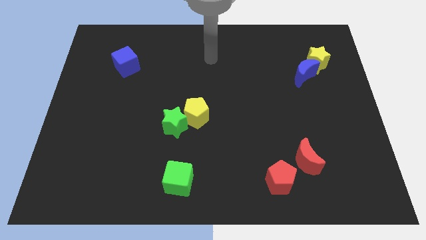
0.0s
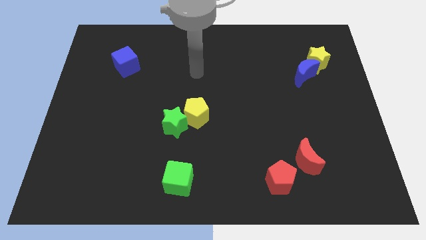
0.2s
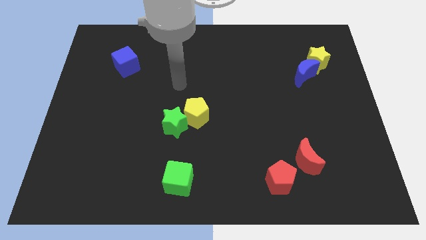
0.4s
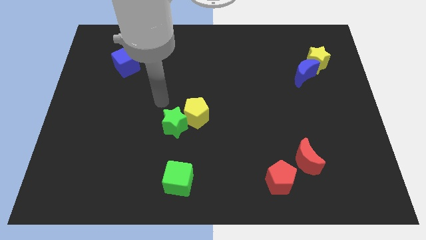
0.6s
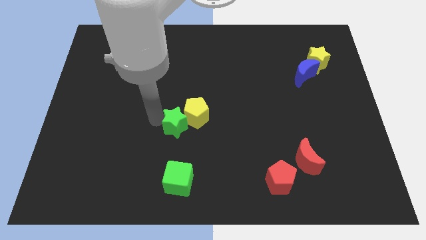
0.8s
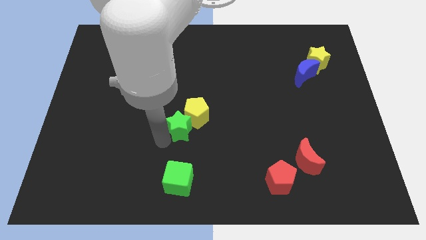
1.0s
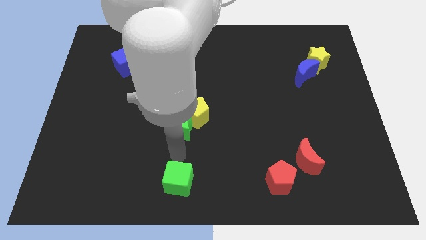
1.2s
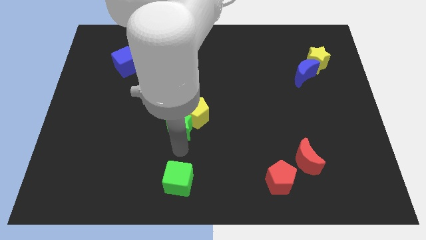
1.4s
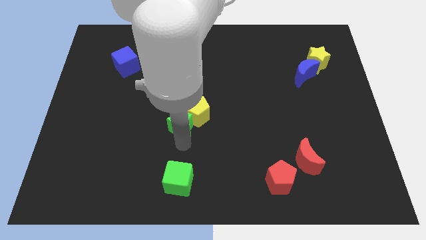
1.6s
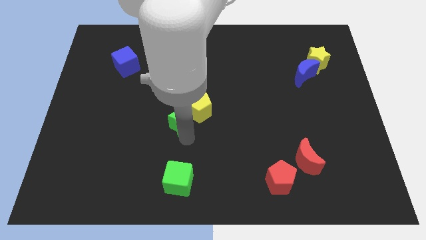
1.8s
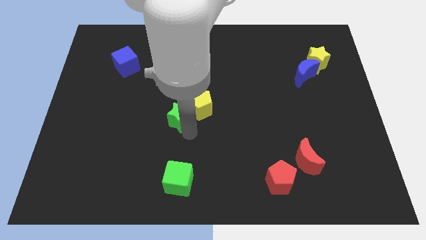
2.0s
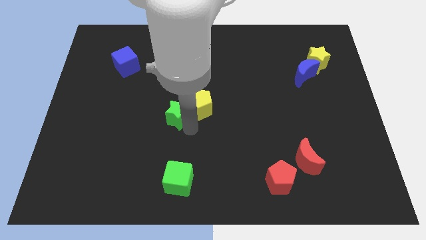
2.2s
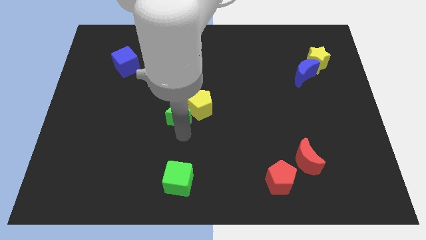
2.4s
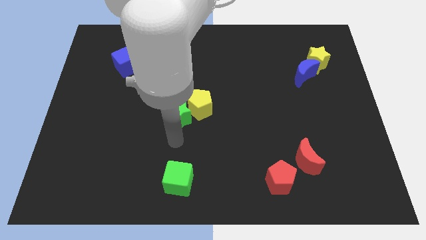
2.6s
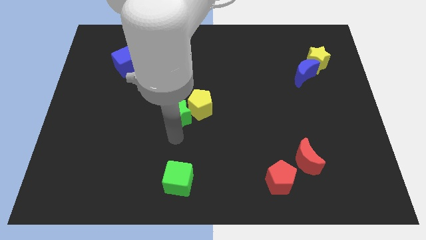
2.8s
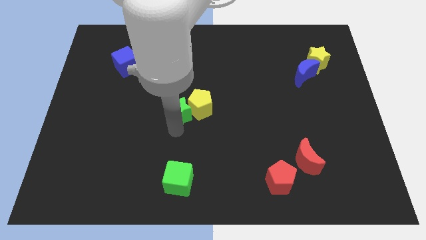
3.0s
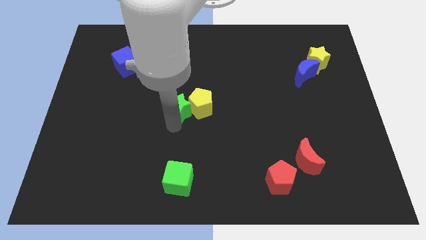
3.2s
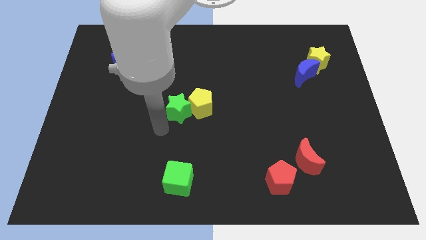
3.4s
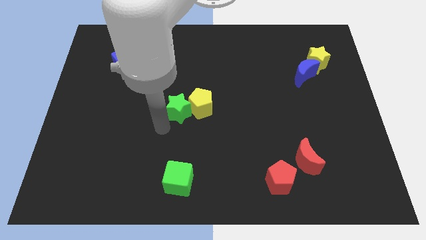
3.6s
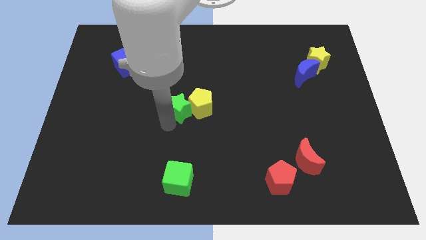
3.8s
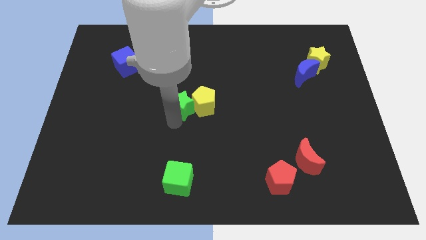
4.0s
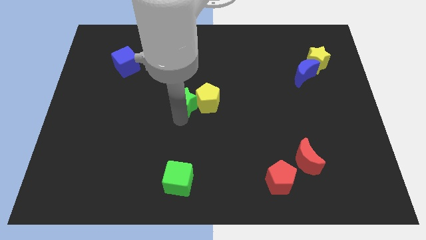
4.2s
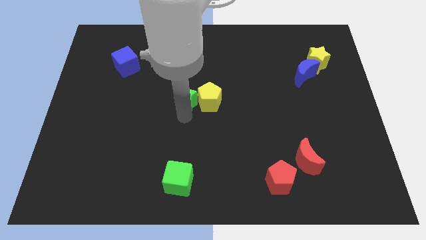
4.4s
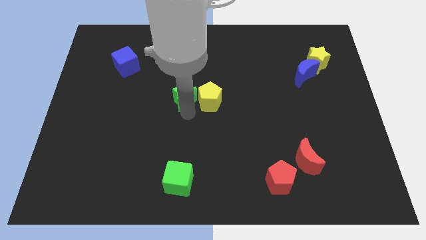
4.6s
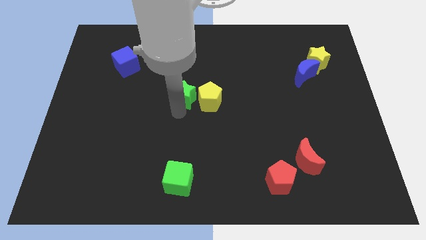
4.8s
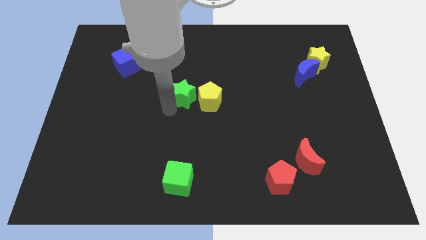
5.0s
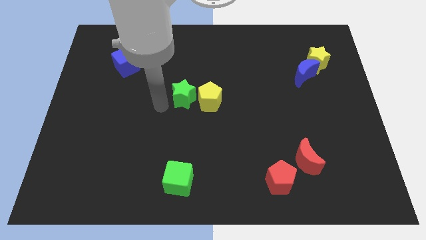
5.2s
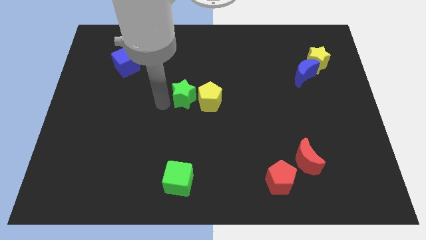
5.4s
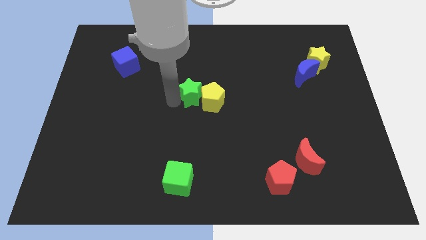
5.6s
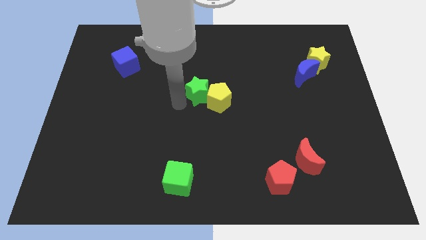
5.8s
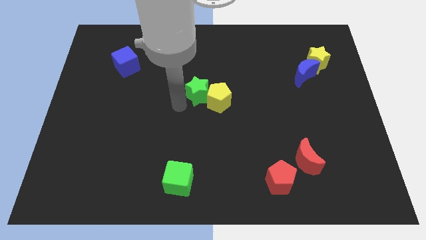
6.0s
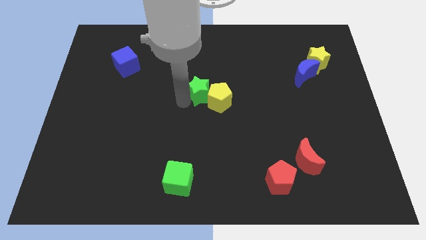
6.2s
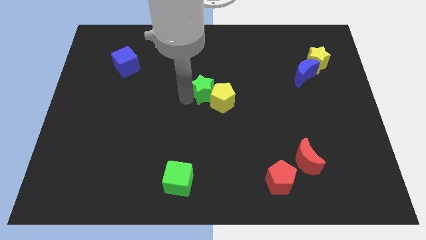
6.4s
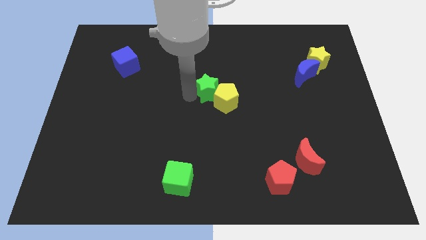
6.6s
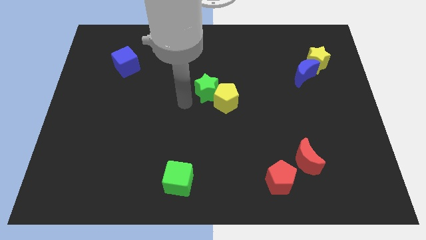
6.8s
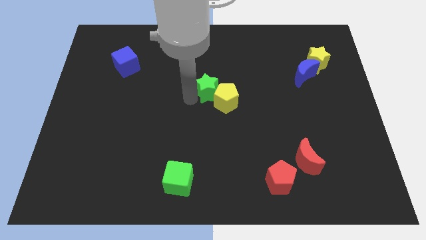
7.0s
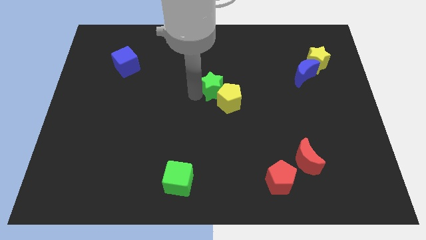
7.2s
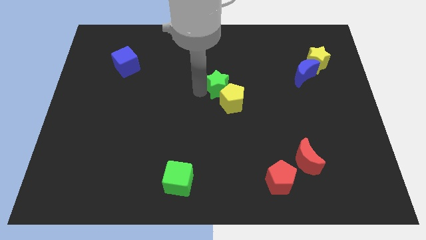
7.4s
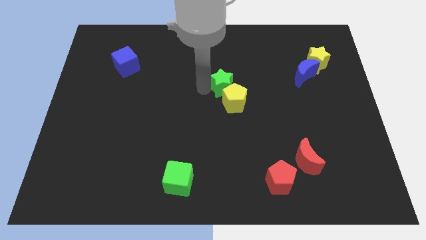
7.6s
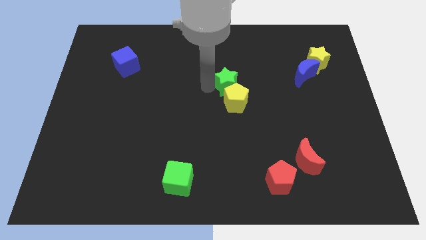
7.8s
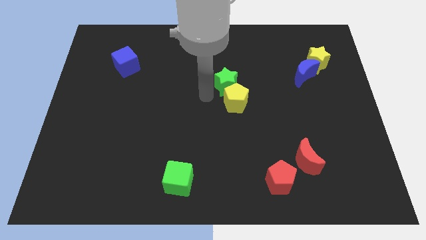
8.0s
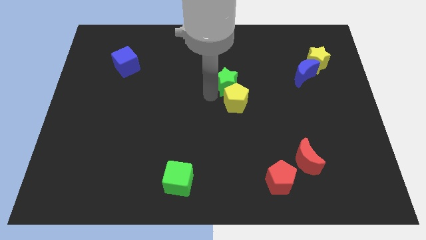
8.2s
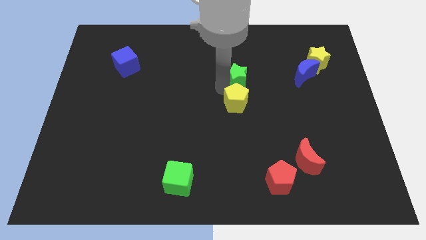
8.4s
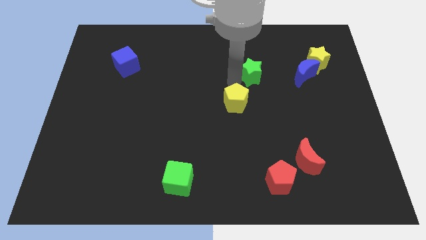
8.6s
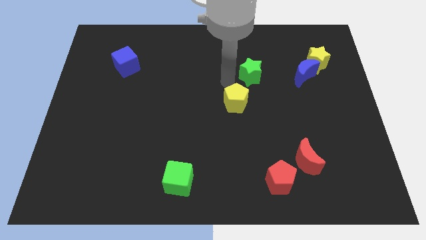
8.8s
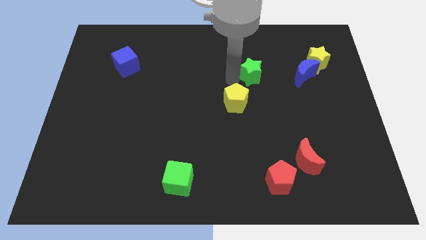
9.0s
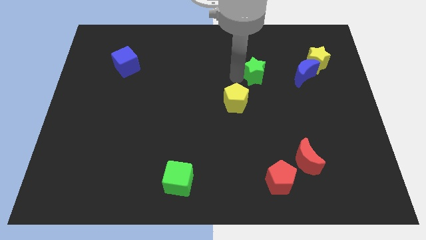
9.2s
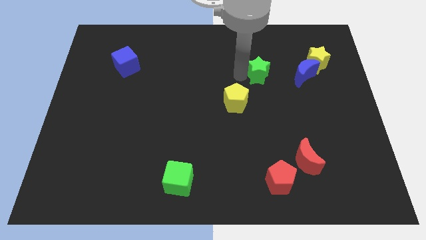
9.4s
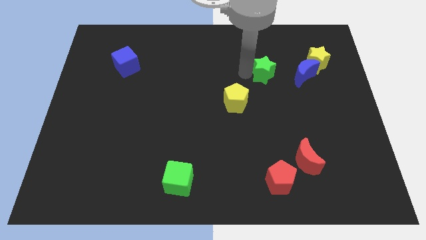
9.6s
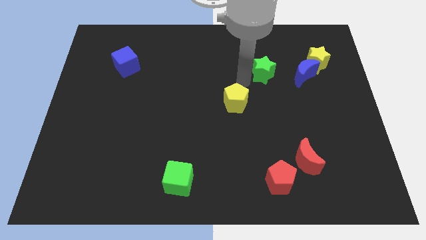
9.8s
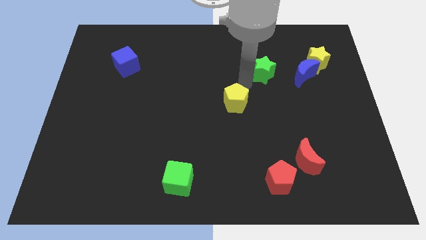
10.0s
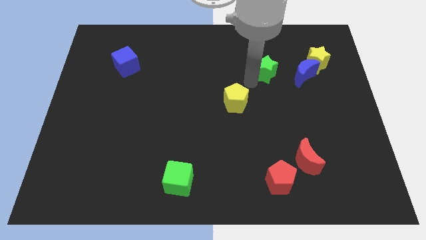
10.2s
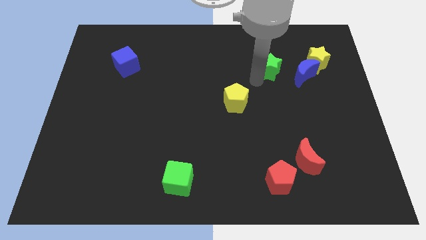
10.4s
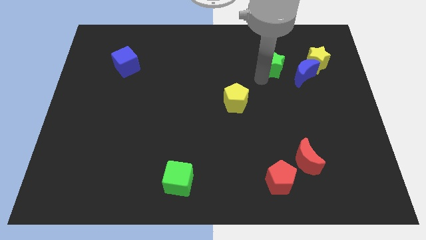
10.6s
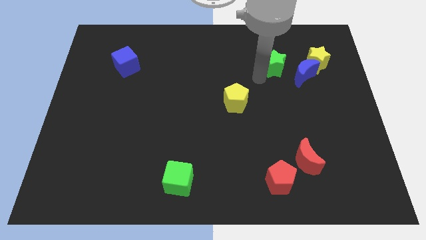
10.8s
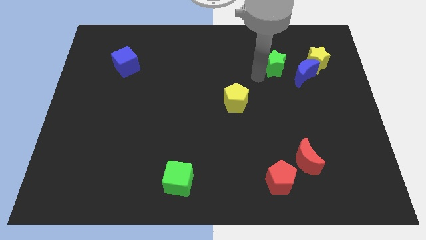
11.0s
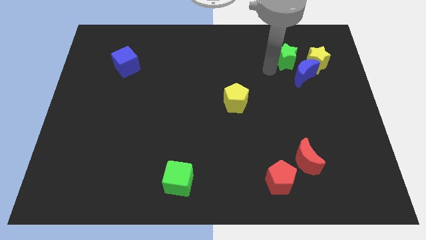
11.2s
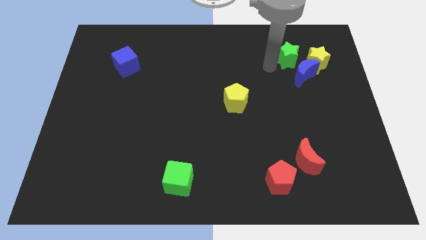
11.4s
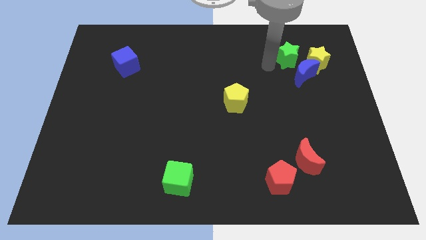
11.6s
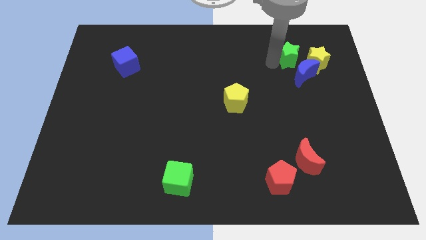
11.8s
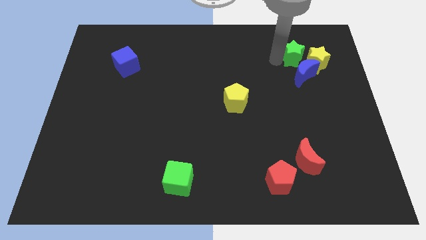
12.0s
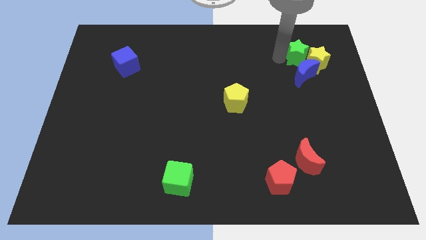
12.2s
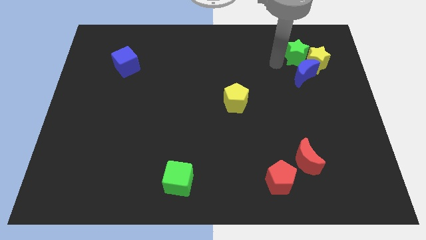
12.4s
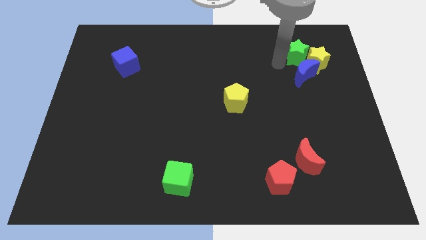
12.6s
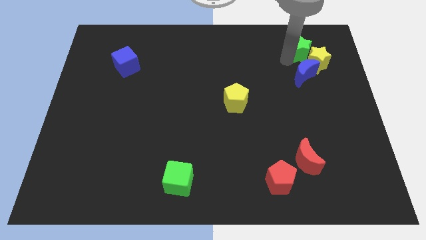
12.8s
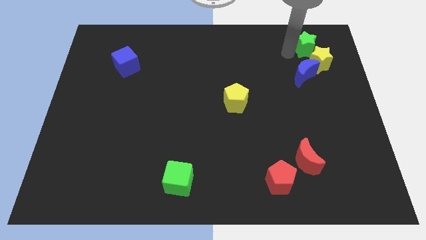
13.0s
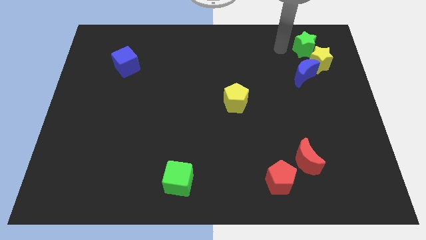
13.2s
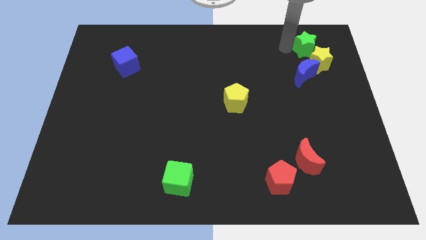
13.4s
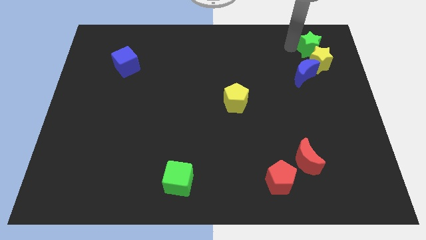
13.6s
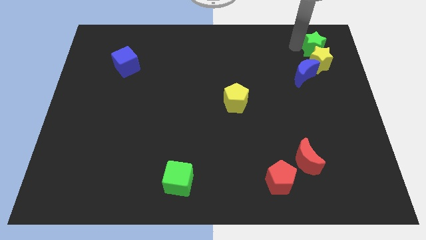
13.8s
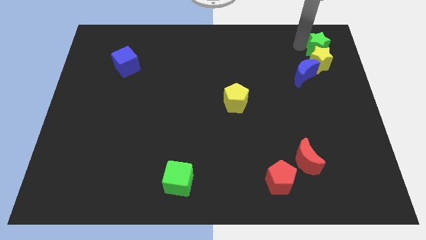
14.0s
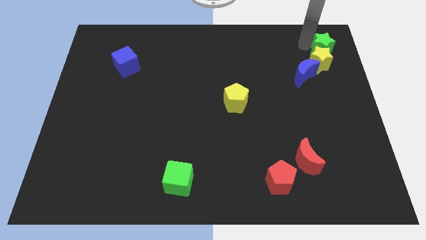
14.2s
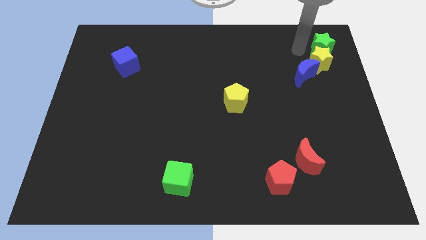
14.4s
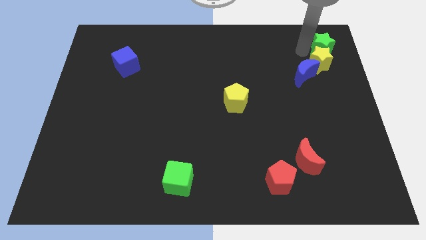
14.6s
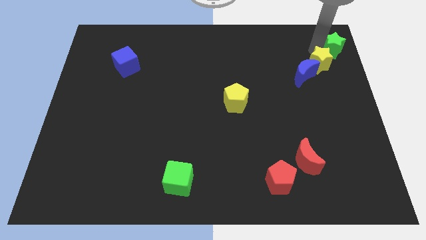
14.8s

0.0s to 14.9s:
slide the green star to the top right of the board
